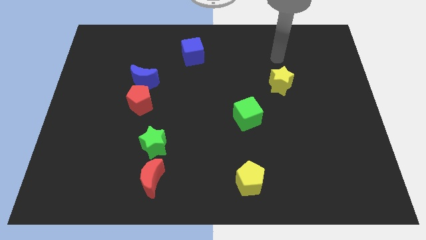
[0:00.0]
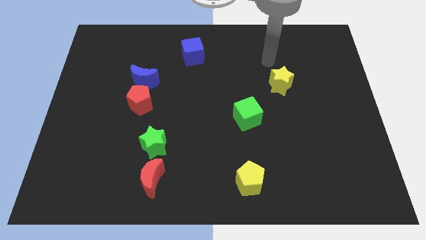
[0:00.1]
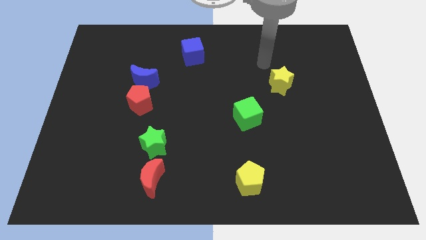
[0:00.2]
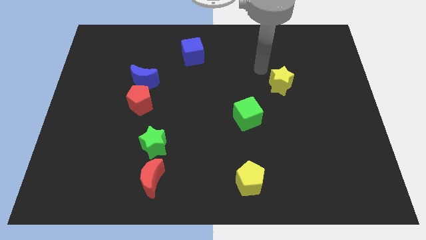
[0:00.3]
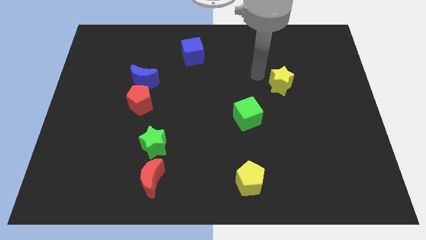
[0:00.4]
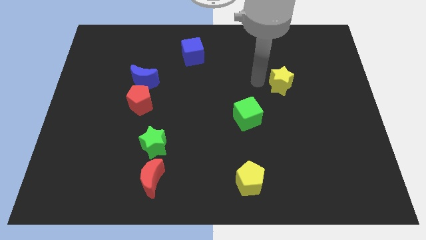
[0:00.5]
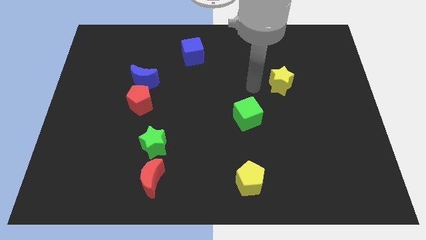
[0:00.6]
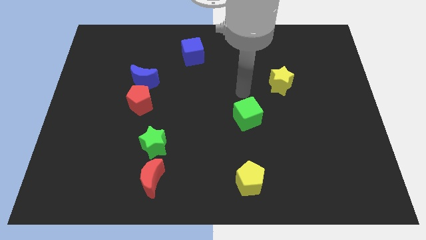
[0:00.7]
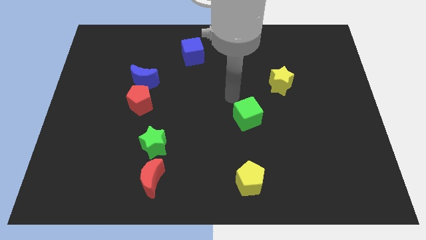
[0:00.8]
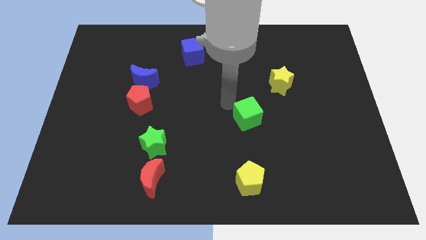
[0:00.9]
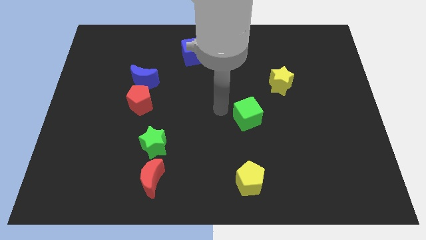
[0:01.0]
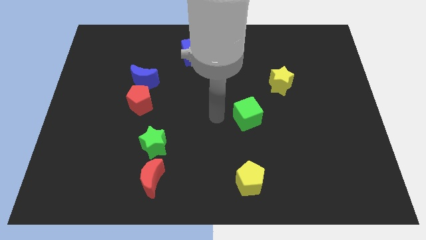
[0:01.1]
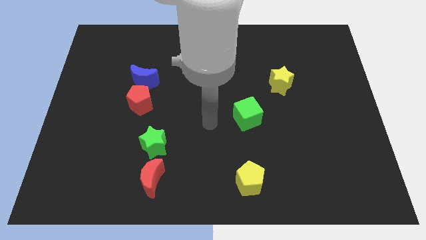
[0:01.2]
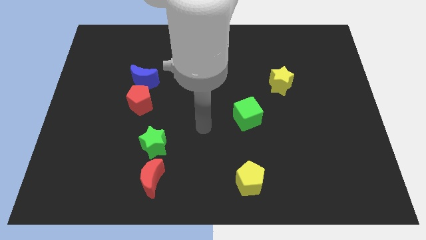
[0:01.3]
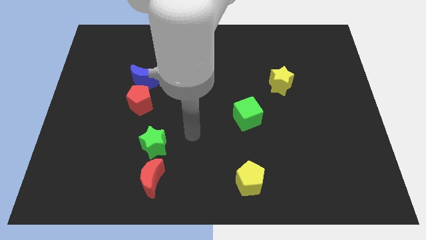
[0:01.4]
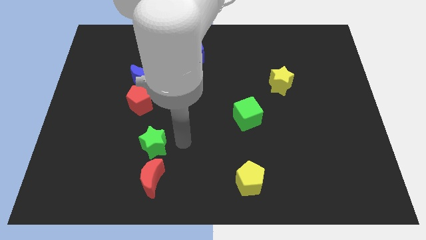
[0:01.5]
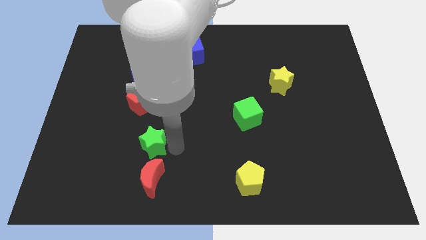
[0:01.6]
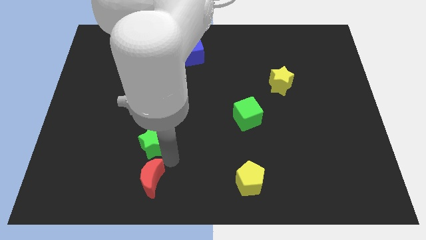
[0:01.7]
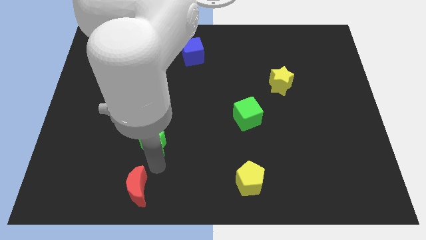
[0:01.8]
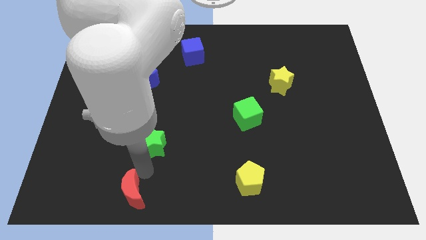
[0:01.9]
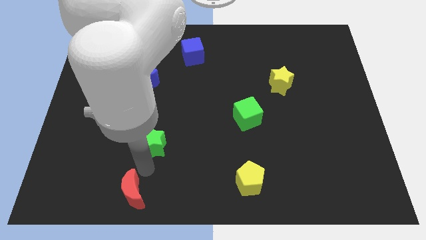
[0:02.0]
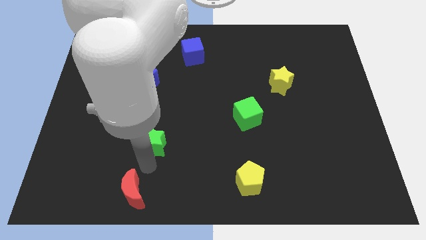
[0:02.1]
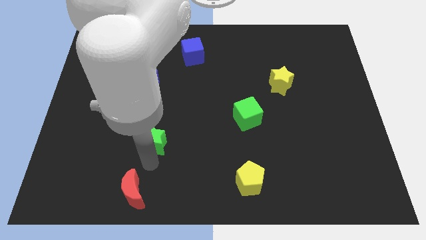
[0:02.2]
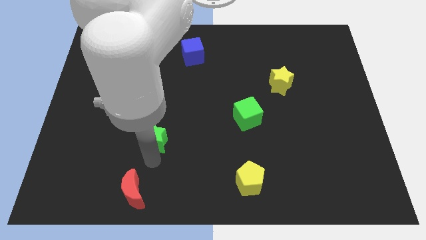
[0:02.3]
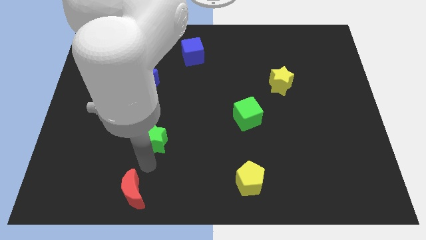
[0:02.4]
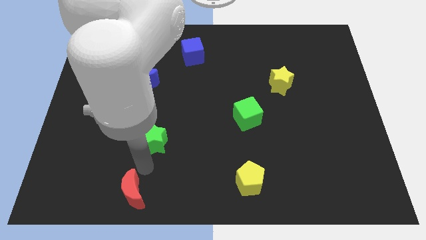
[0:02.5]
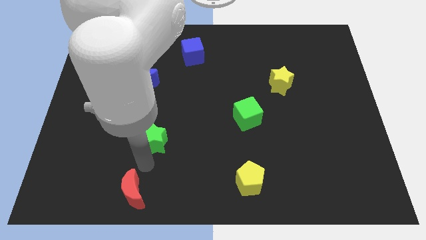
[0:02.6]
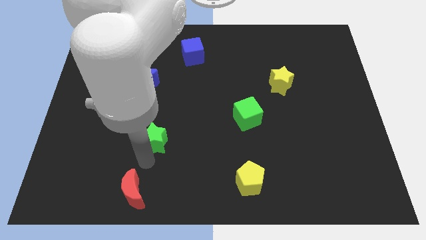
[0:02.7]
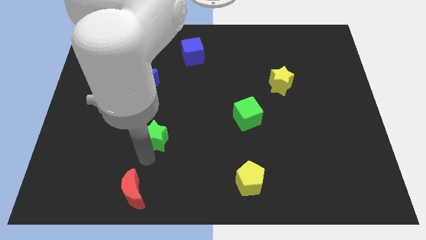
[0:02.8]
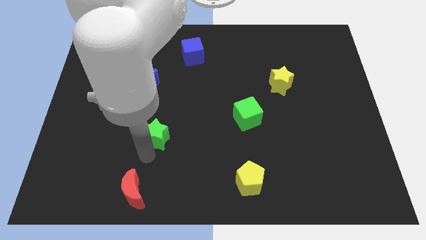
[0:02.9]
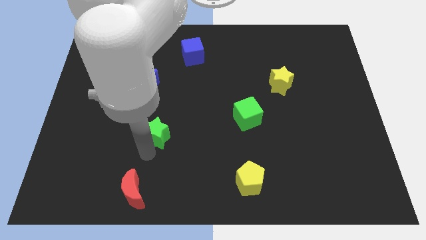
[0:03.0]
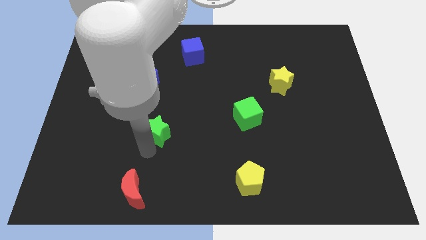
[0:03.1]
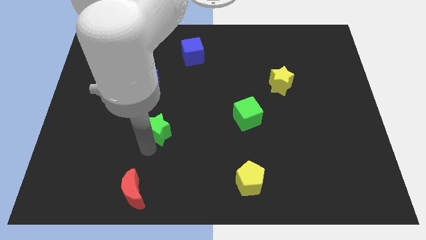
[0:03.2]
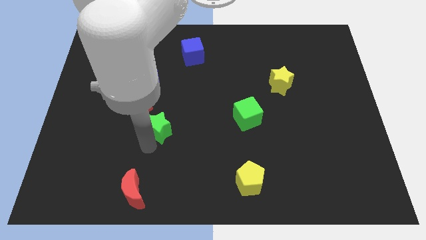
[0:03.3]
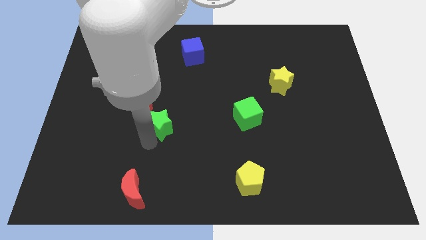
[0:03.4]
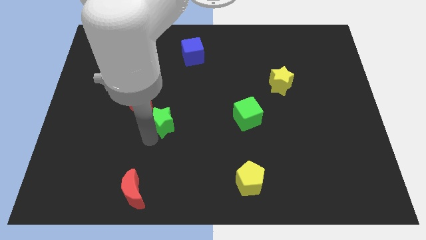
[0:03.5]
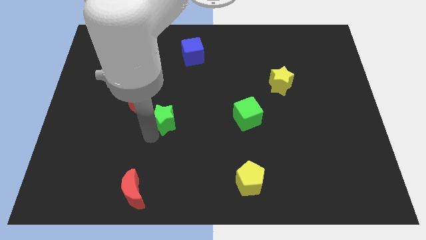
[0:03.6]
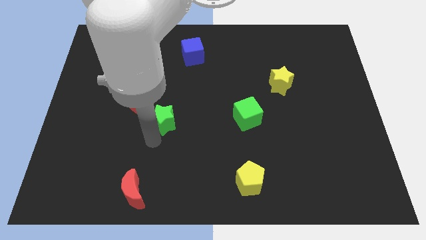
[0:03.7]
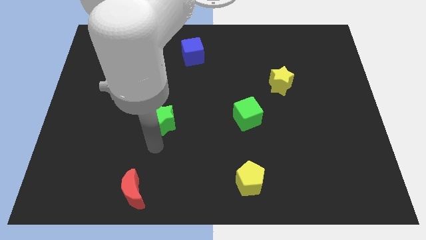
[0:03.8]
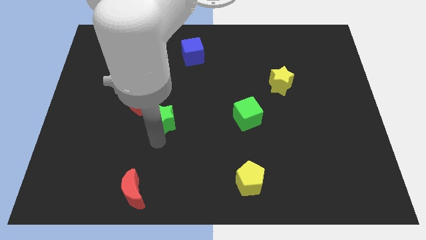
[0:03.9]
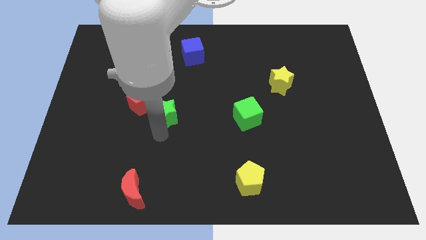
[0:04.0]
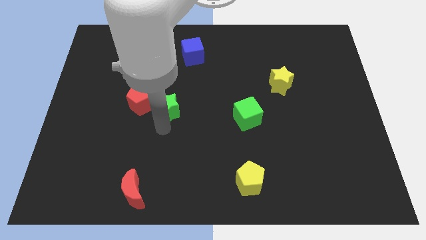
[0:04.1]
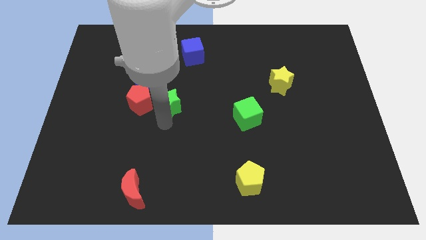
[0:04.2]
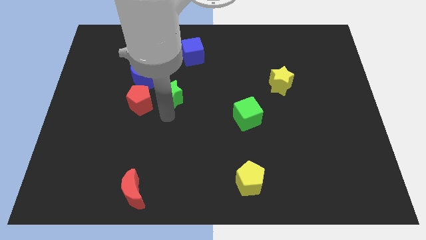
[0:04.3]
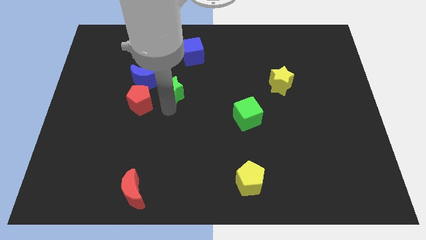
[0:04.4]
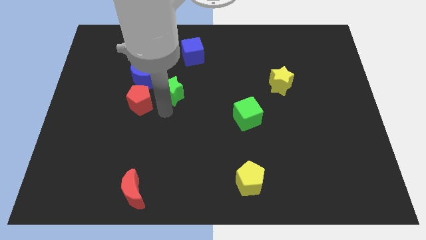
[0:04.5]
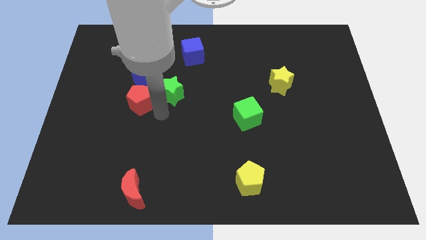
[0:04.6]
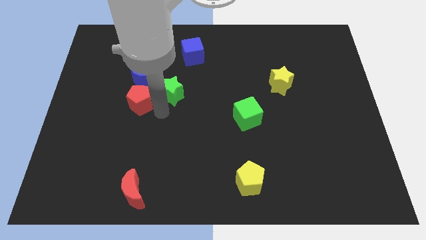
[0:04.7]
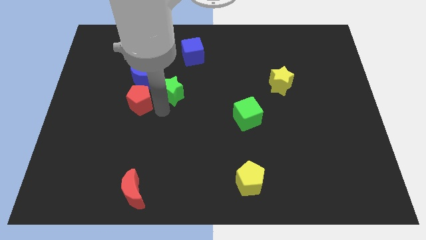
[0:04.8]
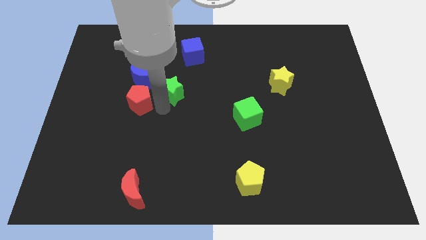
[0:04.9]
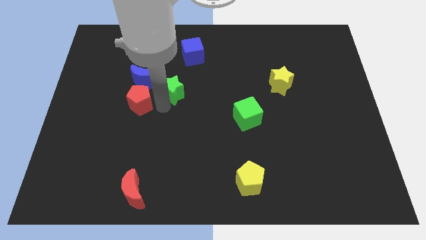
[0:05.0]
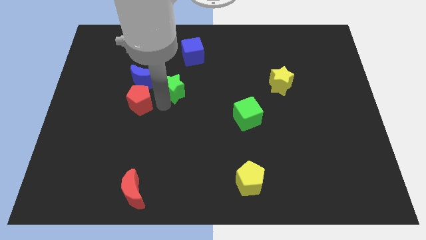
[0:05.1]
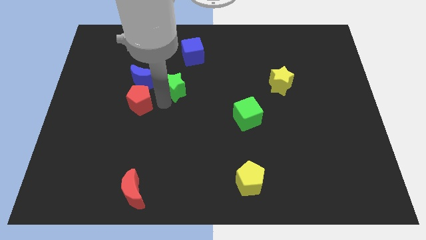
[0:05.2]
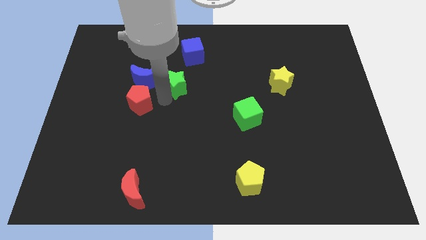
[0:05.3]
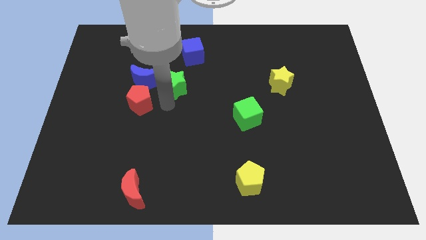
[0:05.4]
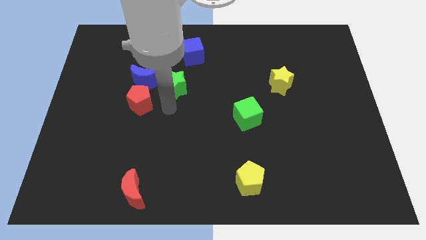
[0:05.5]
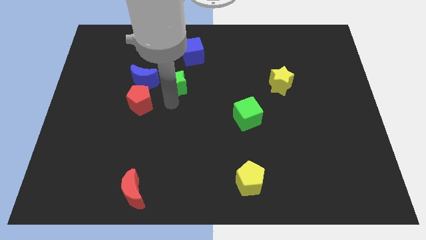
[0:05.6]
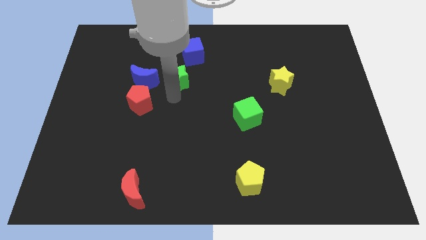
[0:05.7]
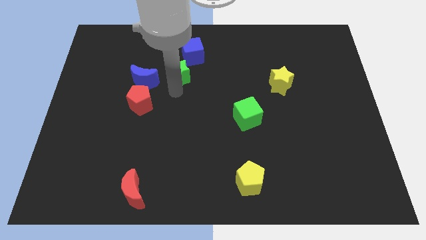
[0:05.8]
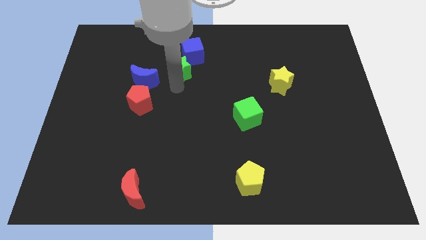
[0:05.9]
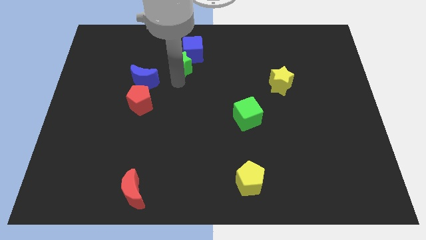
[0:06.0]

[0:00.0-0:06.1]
move the green star to the blue cube

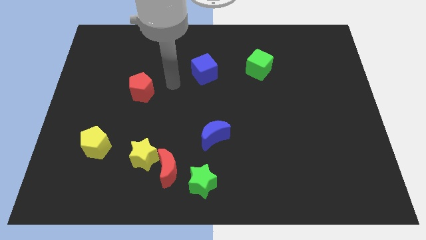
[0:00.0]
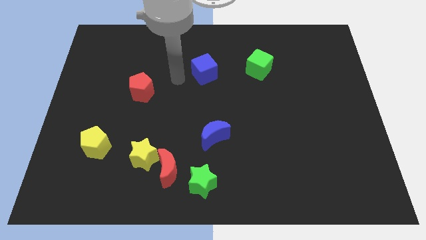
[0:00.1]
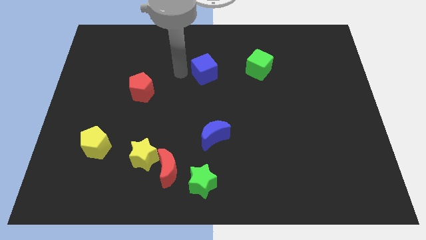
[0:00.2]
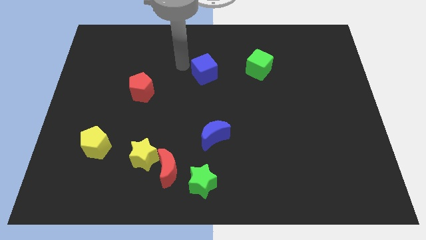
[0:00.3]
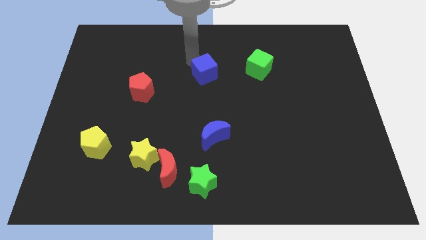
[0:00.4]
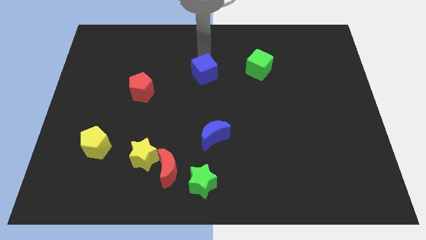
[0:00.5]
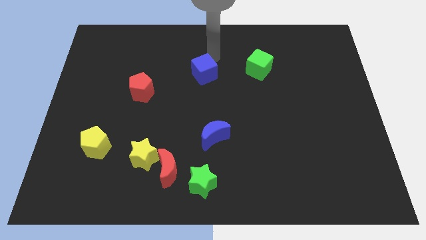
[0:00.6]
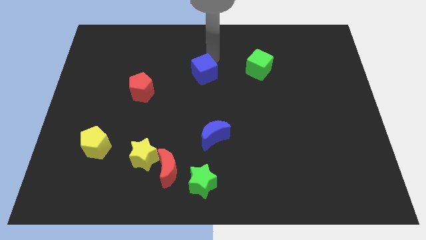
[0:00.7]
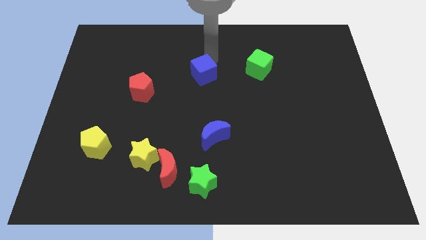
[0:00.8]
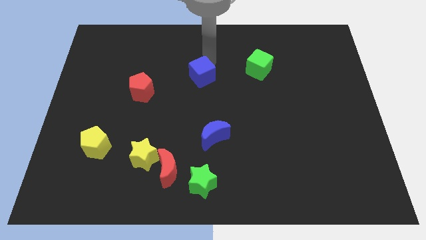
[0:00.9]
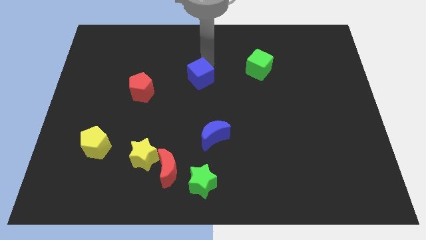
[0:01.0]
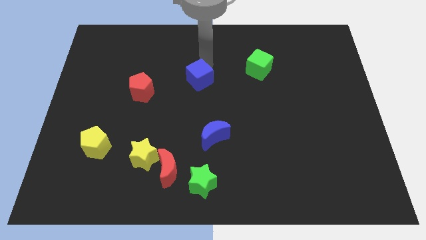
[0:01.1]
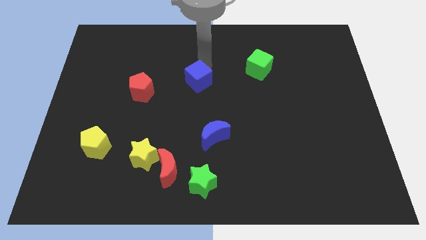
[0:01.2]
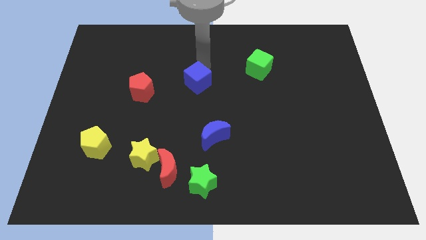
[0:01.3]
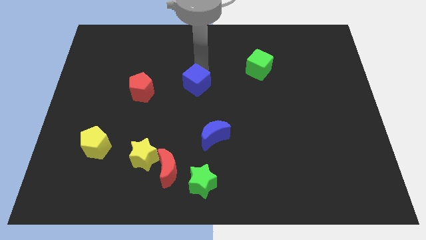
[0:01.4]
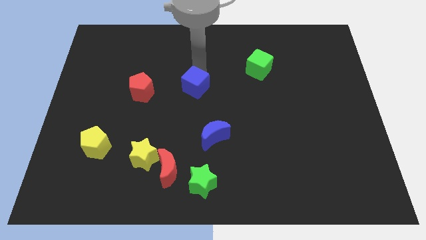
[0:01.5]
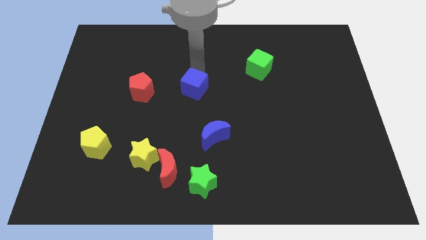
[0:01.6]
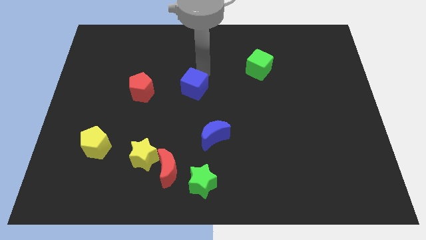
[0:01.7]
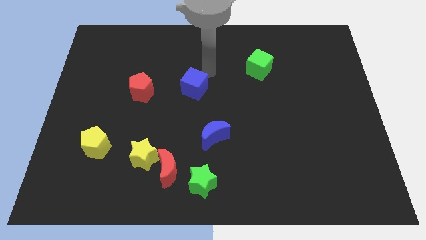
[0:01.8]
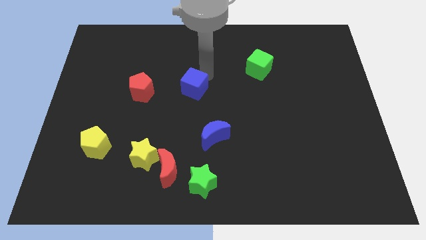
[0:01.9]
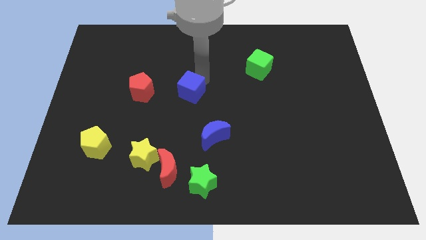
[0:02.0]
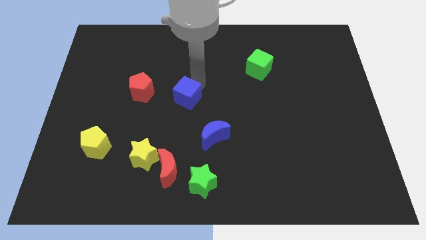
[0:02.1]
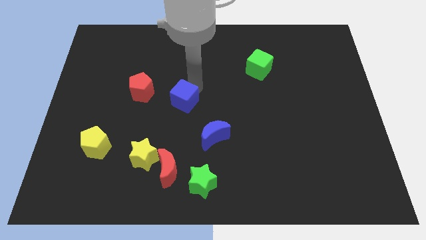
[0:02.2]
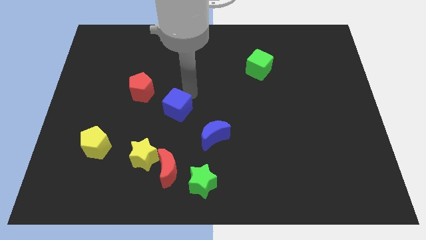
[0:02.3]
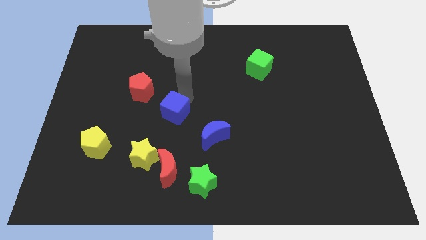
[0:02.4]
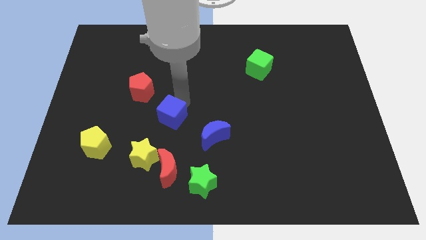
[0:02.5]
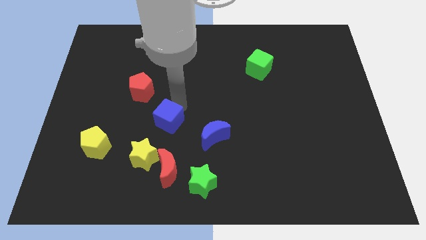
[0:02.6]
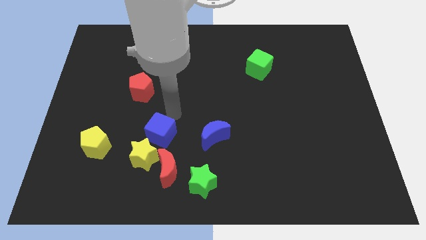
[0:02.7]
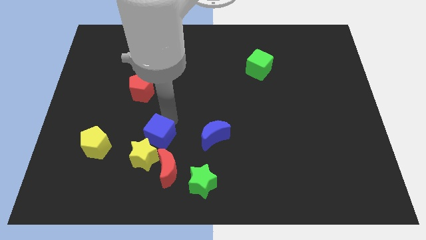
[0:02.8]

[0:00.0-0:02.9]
slide the blue cube close to the yellow star
